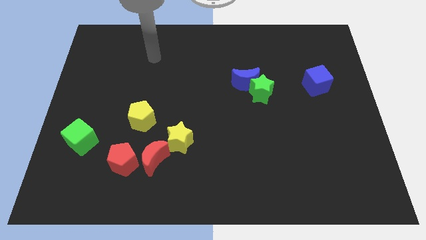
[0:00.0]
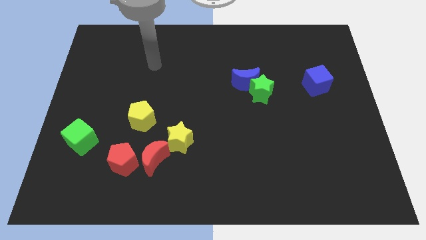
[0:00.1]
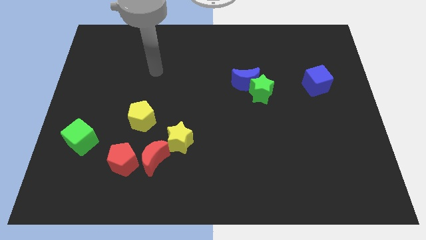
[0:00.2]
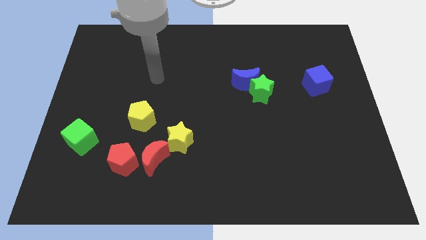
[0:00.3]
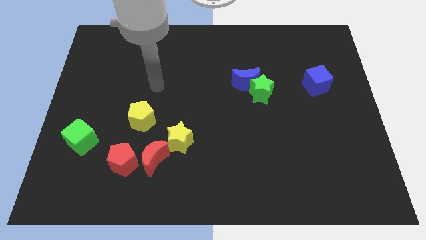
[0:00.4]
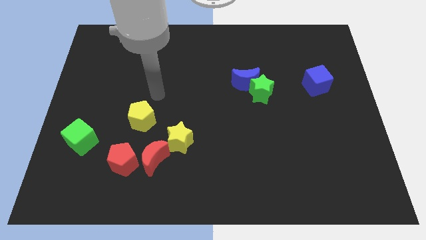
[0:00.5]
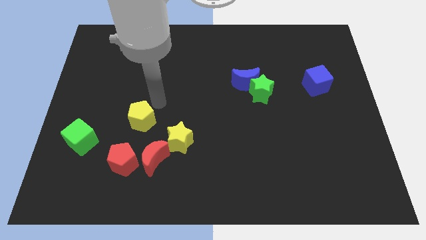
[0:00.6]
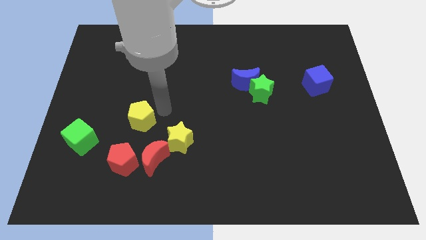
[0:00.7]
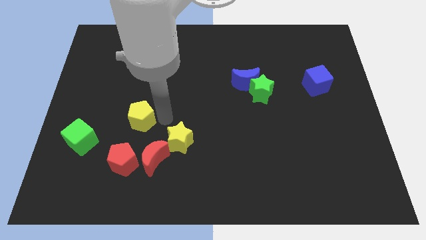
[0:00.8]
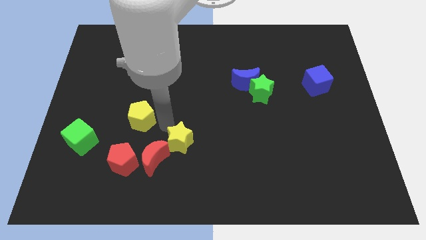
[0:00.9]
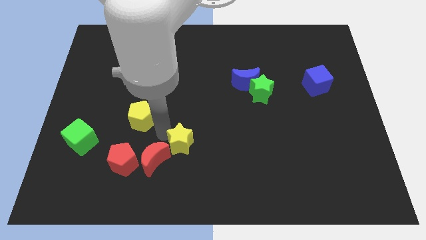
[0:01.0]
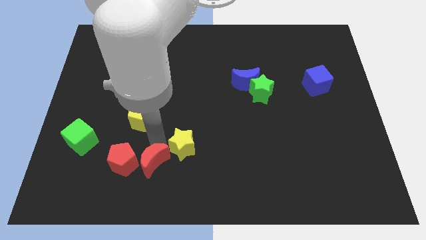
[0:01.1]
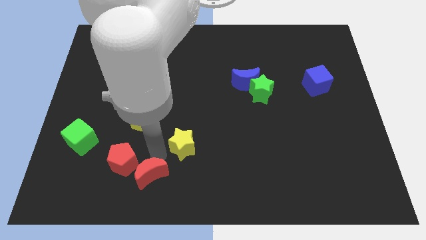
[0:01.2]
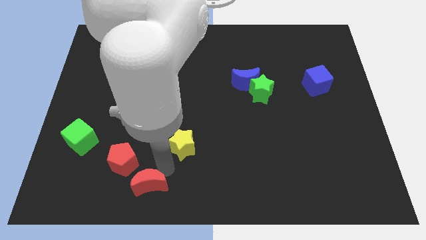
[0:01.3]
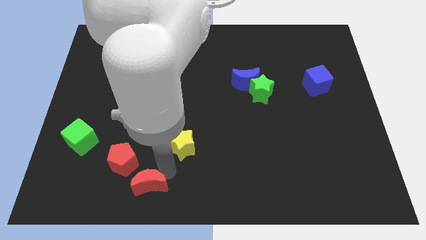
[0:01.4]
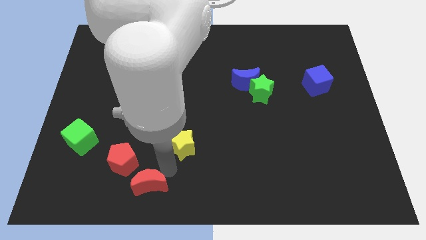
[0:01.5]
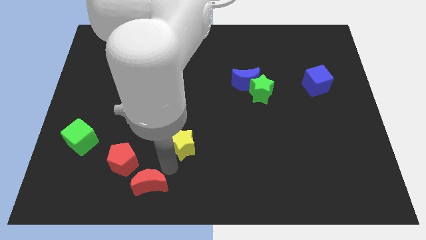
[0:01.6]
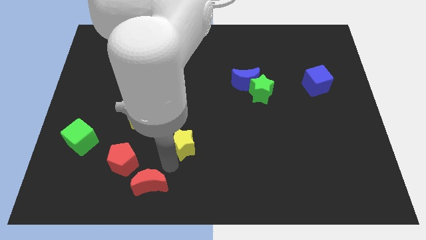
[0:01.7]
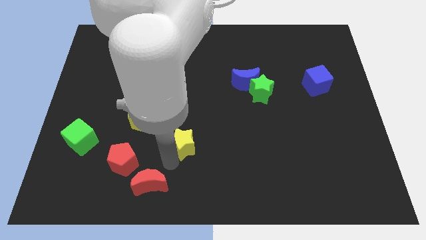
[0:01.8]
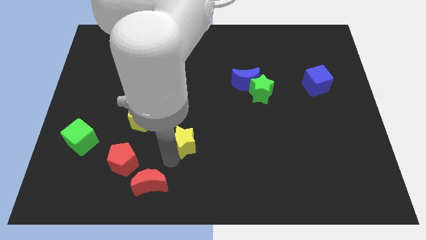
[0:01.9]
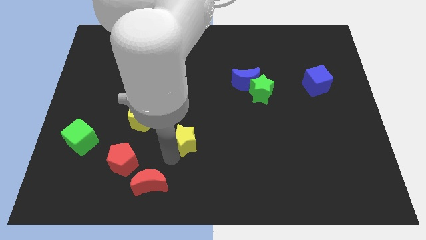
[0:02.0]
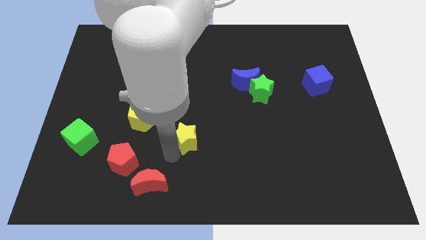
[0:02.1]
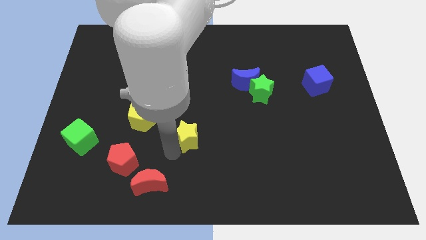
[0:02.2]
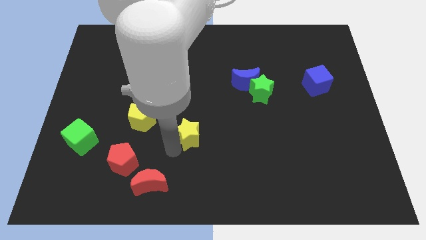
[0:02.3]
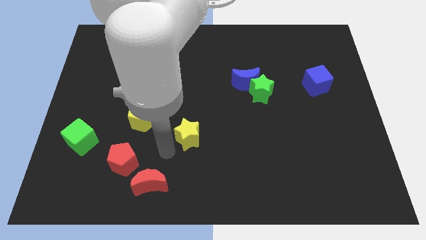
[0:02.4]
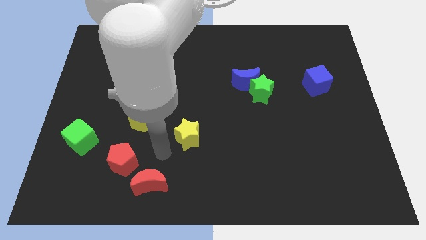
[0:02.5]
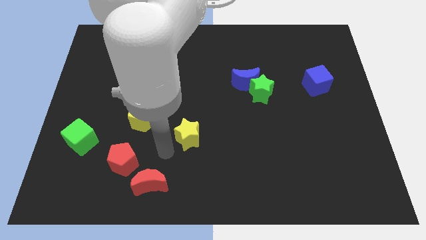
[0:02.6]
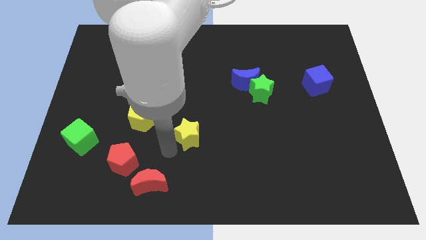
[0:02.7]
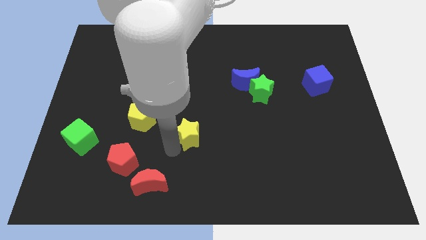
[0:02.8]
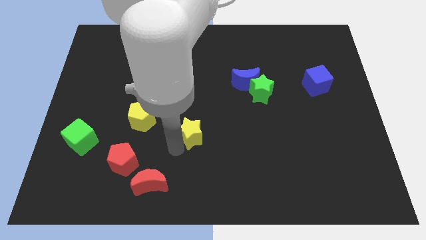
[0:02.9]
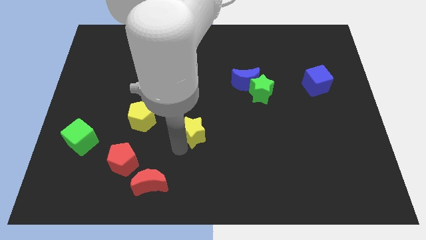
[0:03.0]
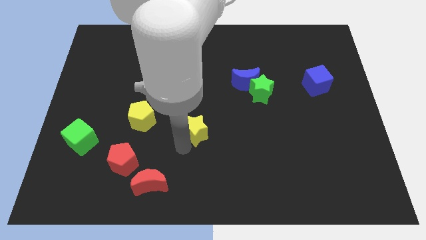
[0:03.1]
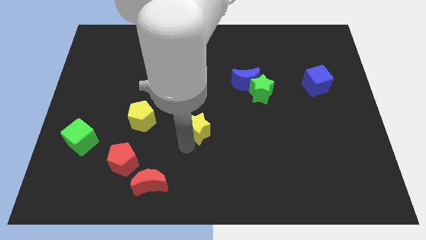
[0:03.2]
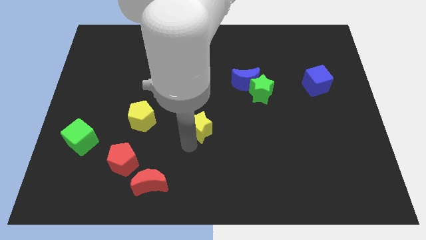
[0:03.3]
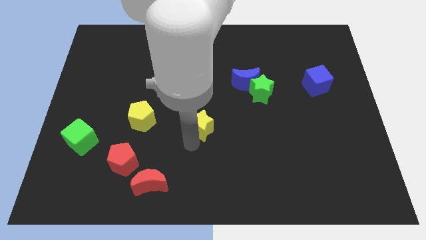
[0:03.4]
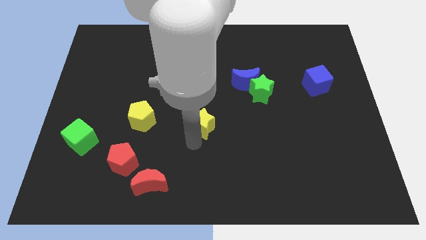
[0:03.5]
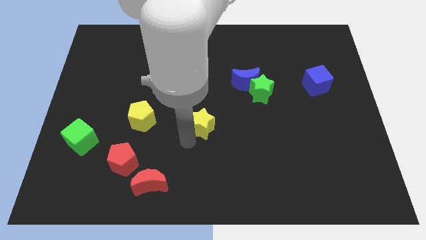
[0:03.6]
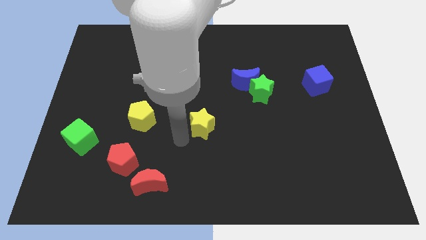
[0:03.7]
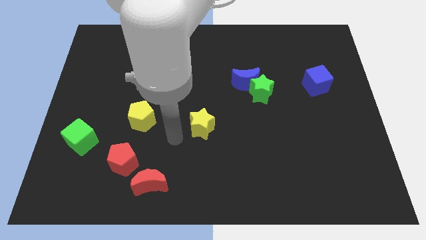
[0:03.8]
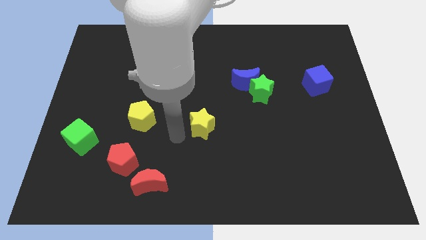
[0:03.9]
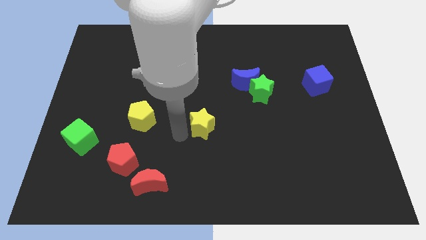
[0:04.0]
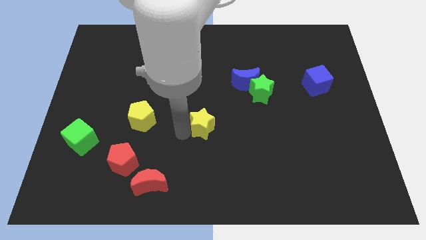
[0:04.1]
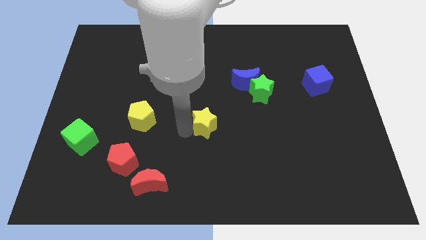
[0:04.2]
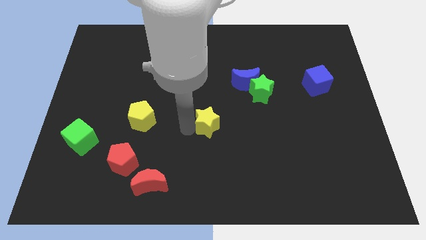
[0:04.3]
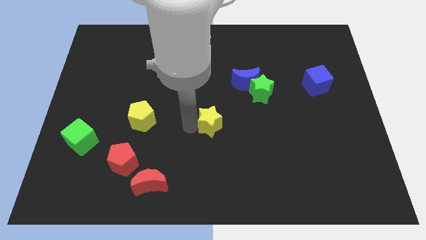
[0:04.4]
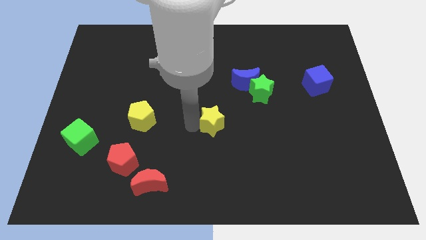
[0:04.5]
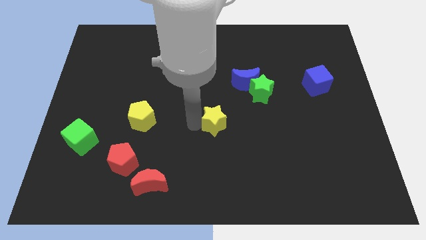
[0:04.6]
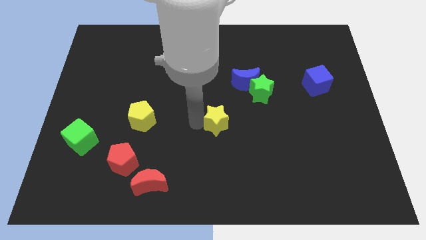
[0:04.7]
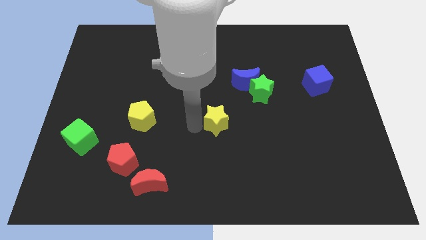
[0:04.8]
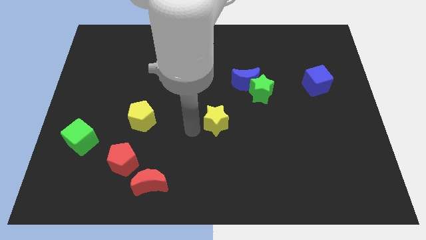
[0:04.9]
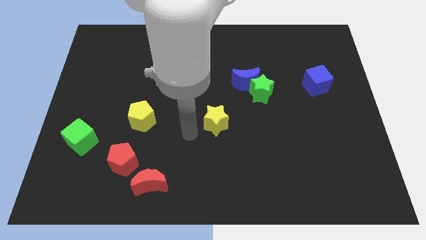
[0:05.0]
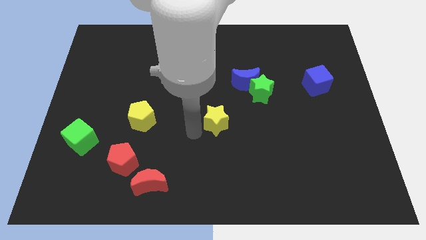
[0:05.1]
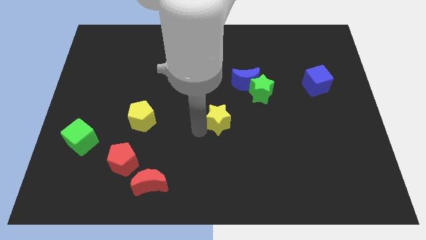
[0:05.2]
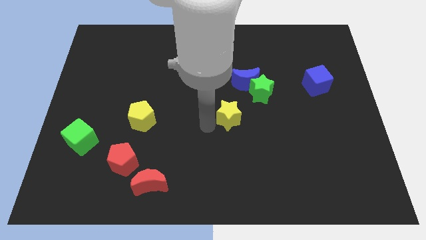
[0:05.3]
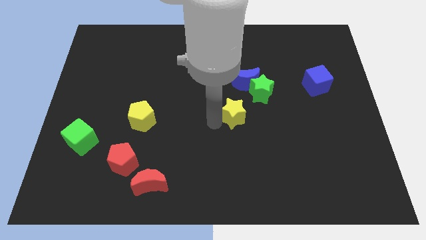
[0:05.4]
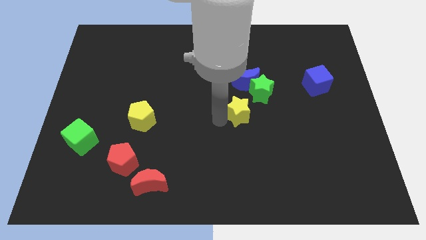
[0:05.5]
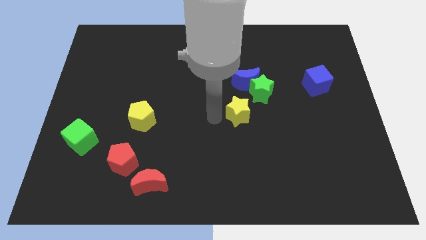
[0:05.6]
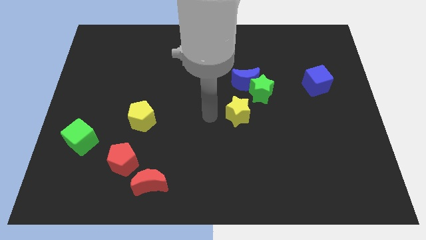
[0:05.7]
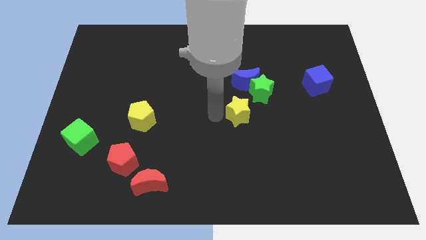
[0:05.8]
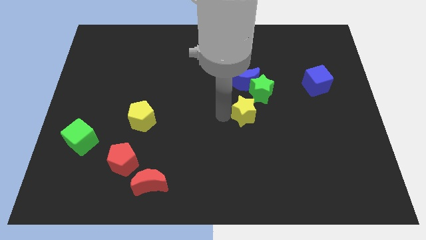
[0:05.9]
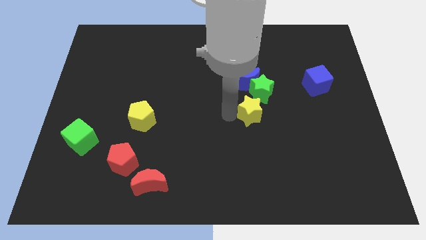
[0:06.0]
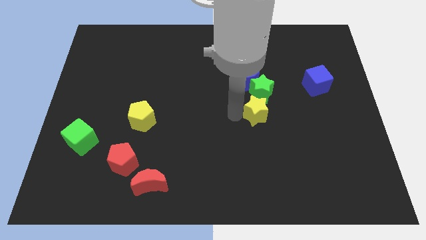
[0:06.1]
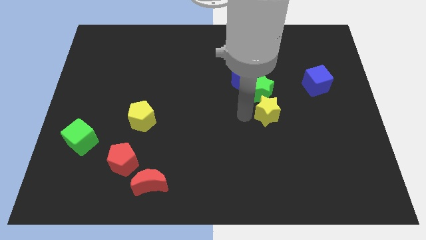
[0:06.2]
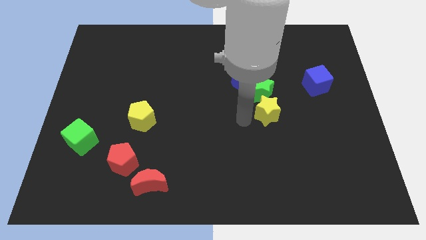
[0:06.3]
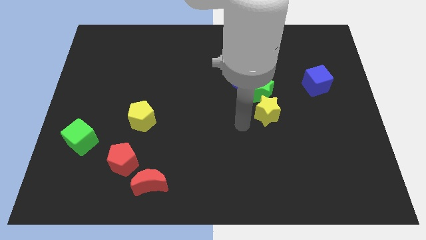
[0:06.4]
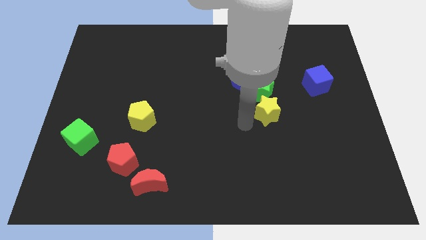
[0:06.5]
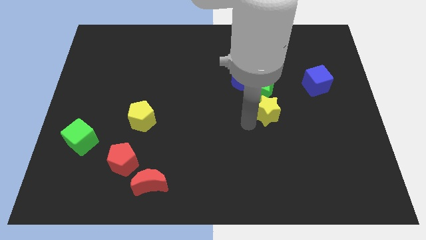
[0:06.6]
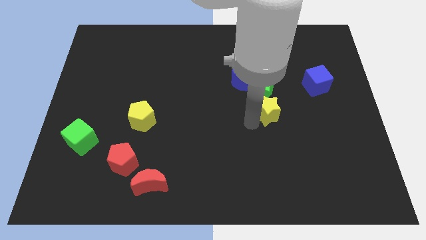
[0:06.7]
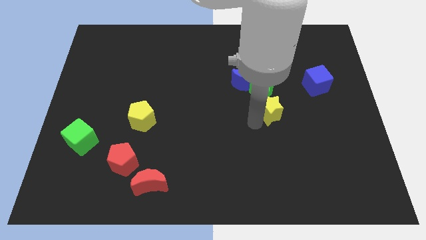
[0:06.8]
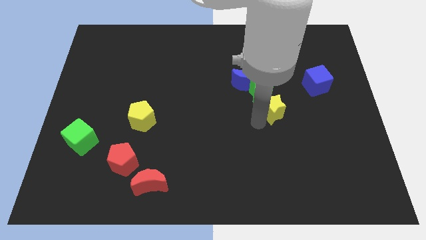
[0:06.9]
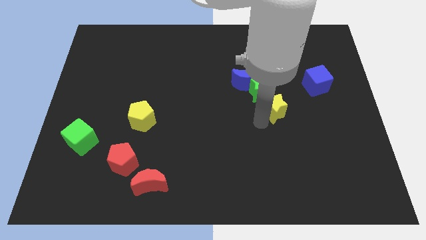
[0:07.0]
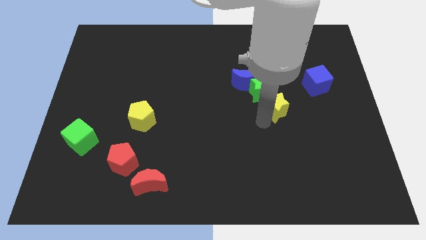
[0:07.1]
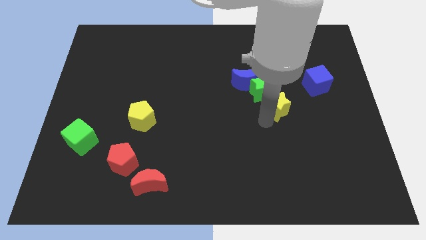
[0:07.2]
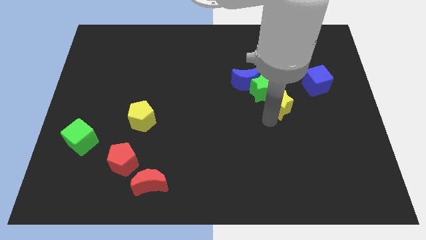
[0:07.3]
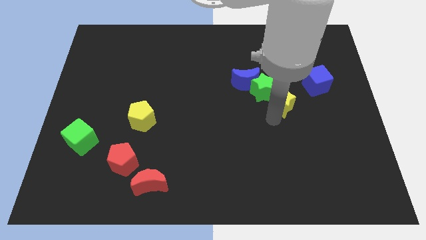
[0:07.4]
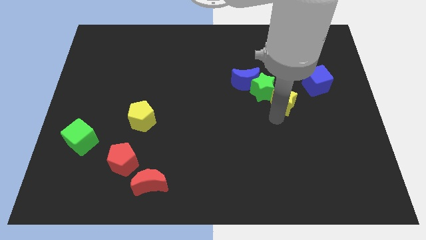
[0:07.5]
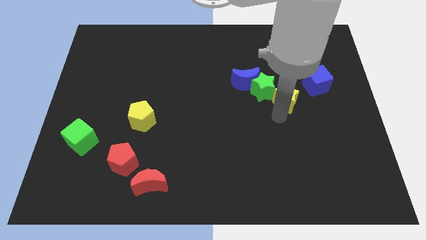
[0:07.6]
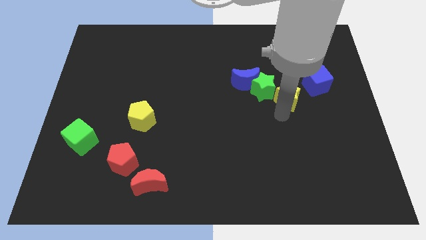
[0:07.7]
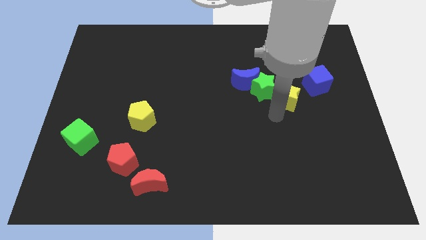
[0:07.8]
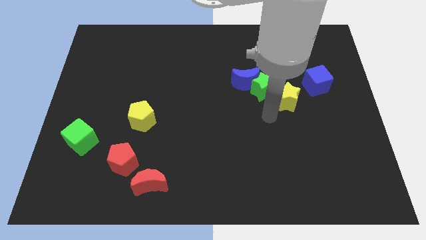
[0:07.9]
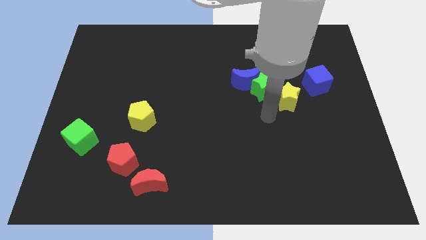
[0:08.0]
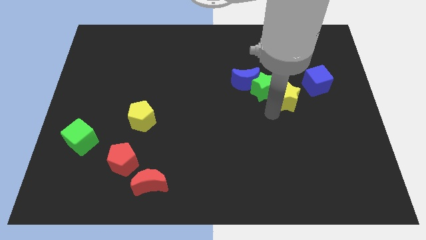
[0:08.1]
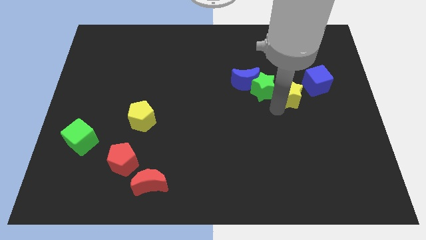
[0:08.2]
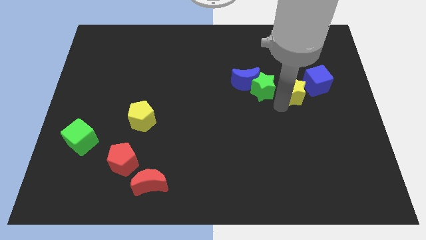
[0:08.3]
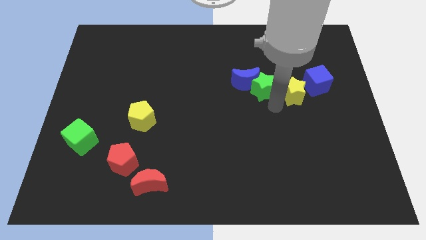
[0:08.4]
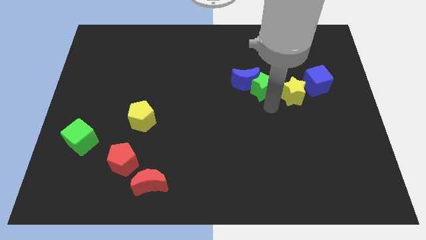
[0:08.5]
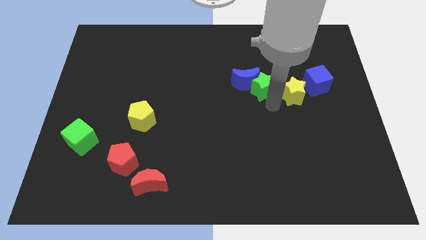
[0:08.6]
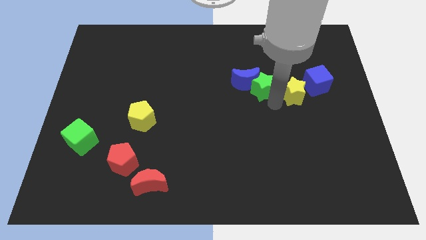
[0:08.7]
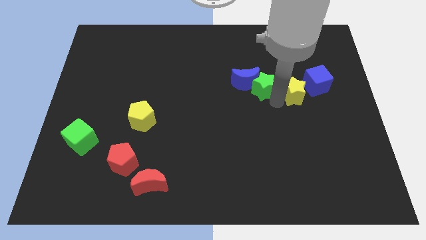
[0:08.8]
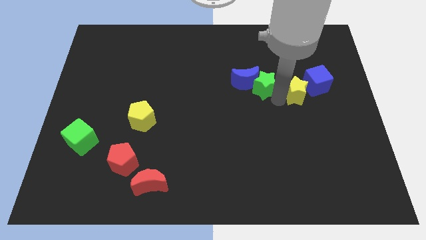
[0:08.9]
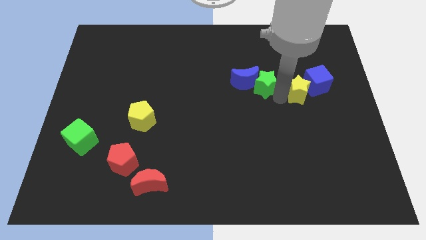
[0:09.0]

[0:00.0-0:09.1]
move the yellow star next to the blue cube
